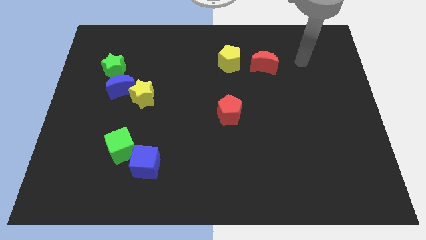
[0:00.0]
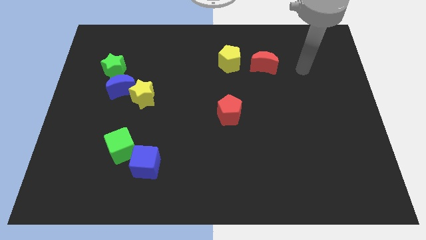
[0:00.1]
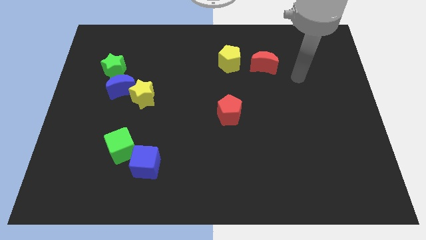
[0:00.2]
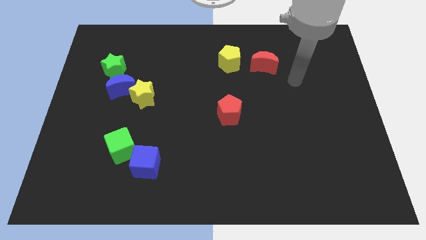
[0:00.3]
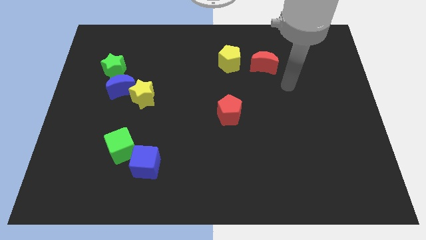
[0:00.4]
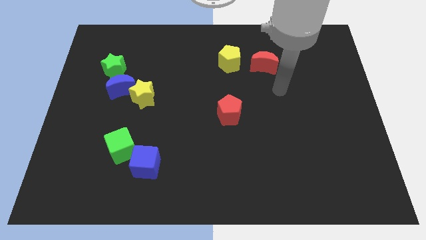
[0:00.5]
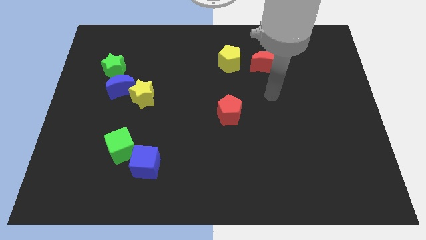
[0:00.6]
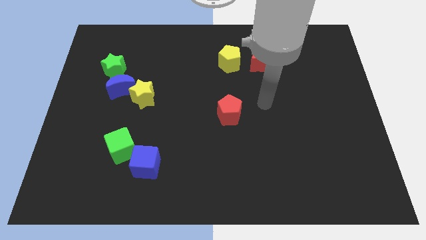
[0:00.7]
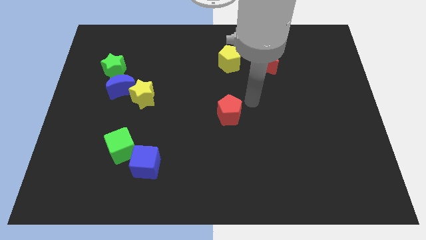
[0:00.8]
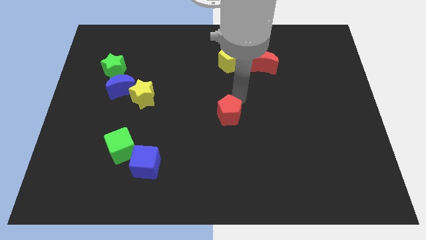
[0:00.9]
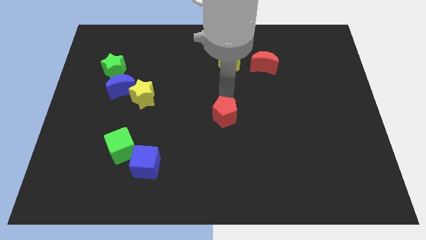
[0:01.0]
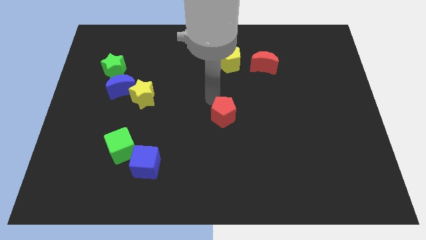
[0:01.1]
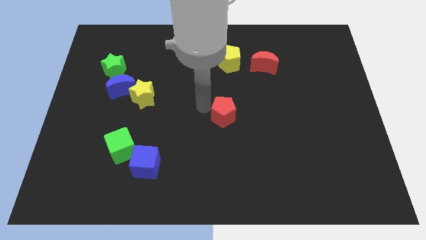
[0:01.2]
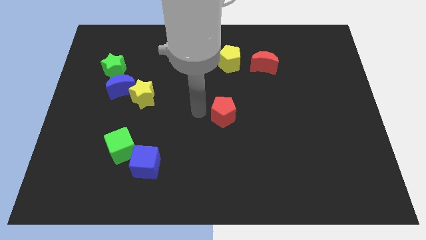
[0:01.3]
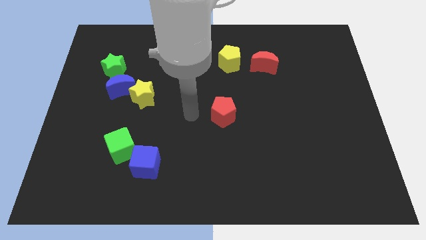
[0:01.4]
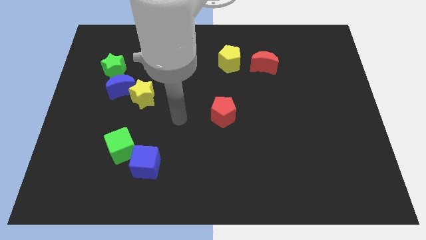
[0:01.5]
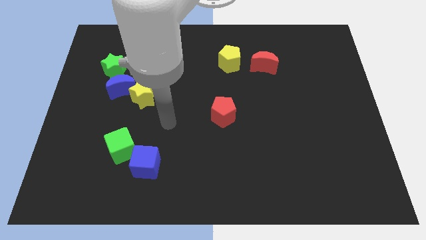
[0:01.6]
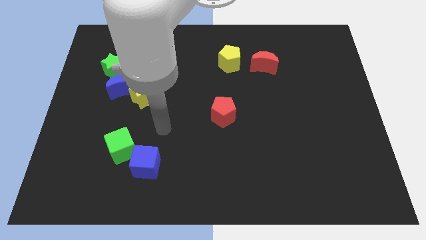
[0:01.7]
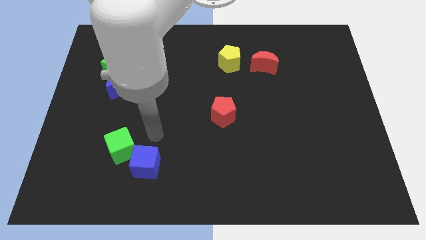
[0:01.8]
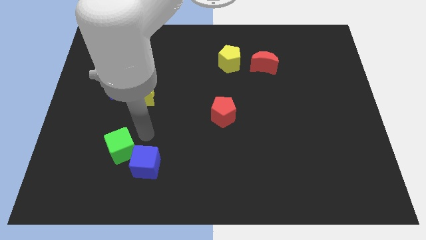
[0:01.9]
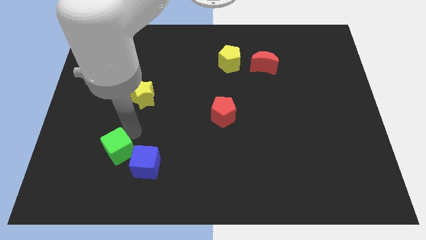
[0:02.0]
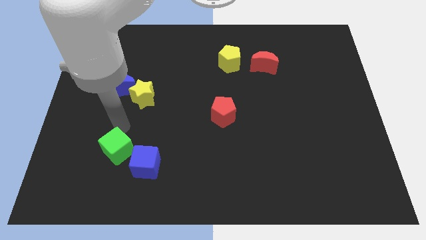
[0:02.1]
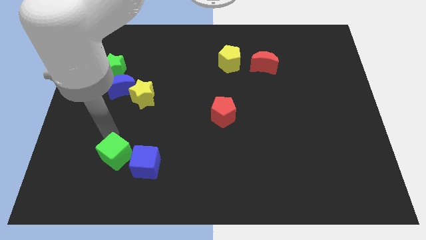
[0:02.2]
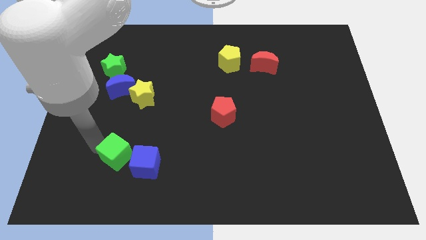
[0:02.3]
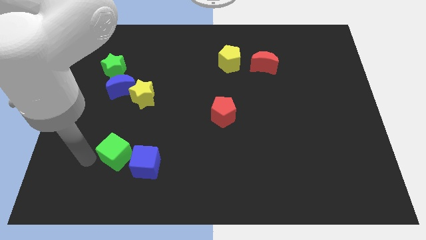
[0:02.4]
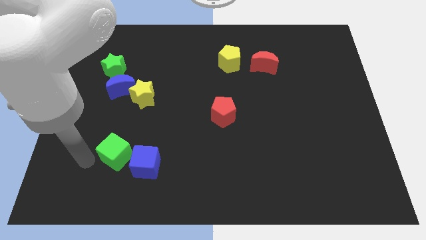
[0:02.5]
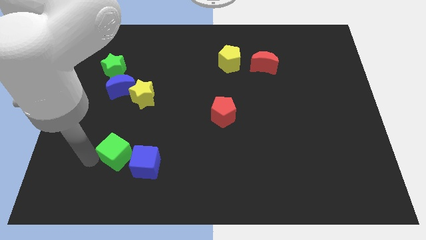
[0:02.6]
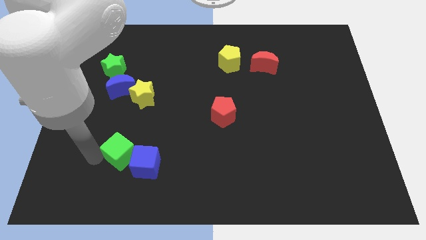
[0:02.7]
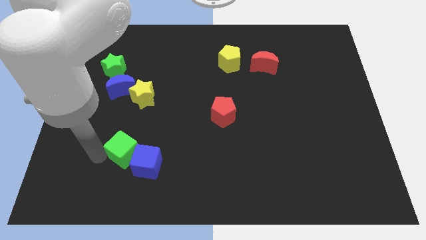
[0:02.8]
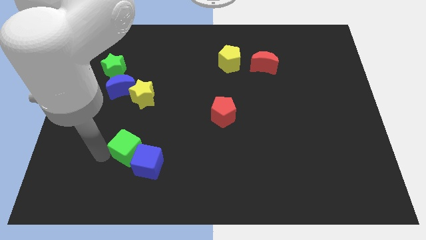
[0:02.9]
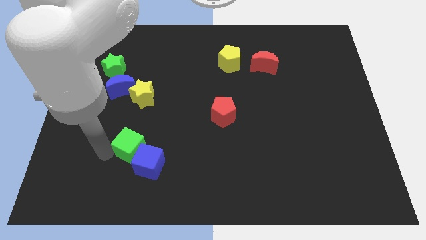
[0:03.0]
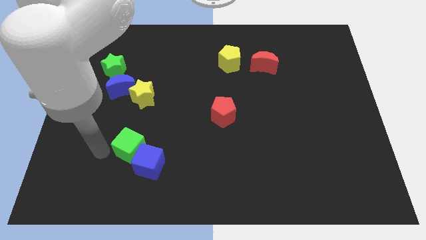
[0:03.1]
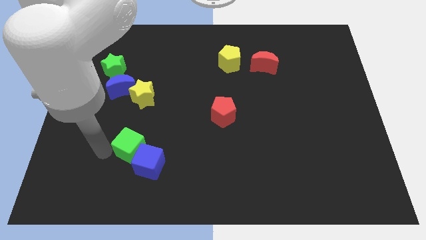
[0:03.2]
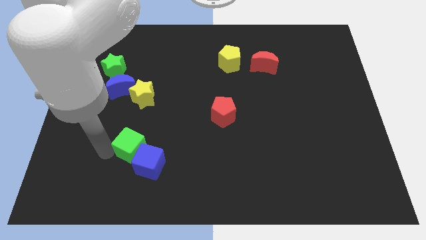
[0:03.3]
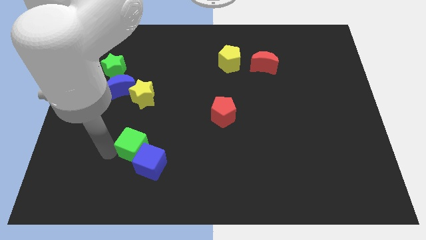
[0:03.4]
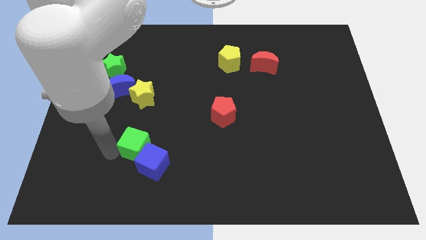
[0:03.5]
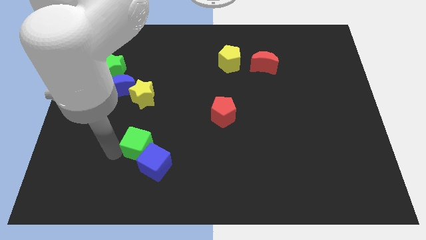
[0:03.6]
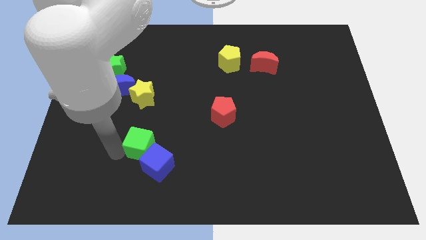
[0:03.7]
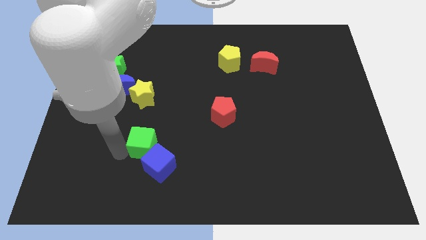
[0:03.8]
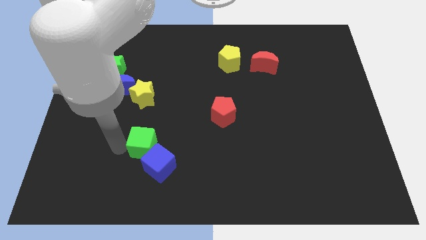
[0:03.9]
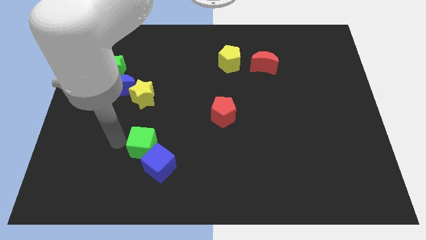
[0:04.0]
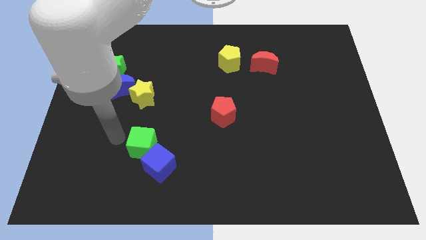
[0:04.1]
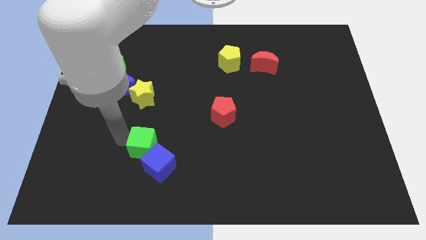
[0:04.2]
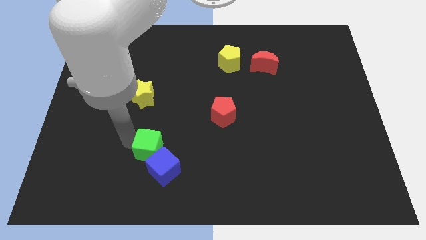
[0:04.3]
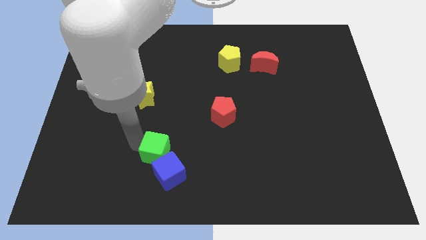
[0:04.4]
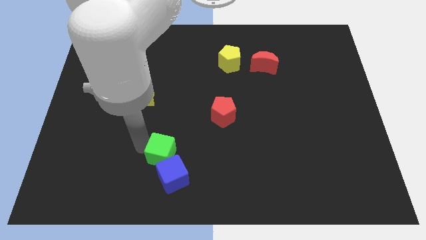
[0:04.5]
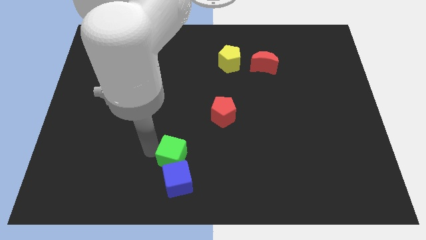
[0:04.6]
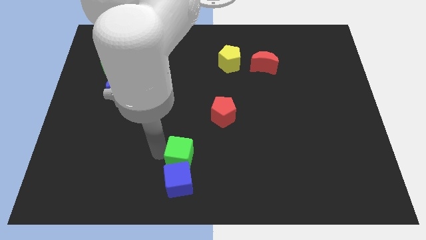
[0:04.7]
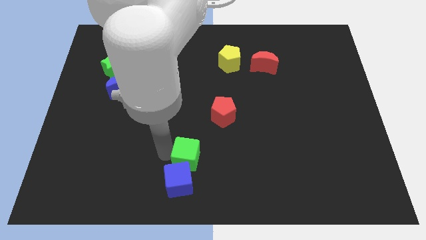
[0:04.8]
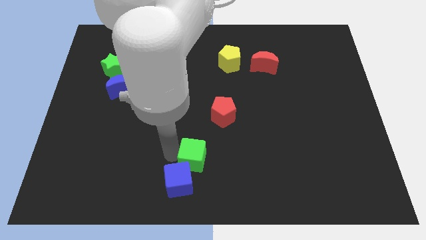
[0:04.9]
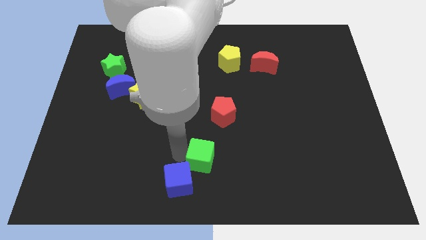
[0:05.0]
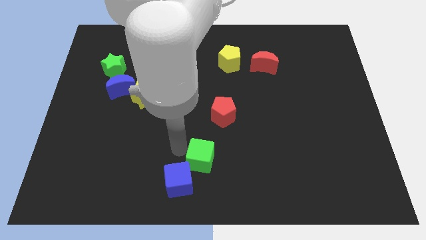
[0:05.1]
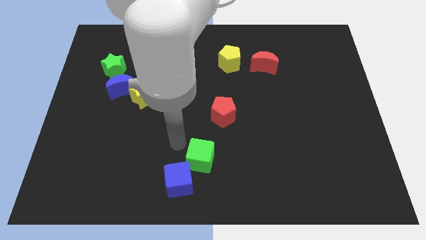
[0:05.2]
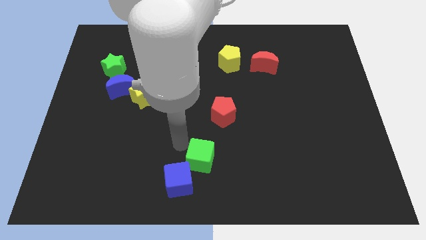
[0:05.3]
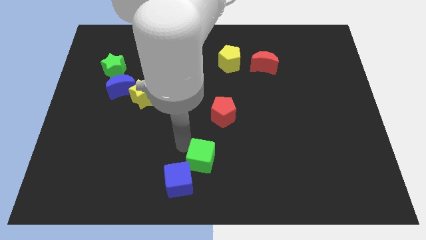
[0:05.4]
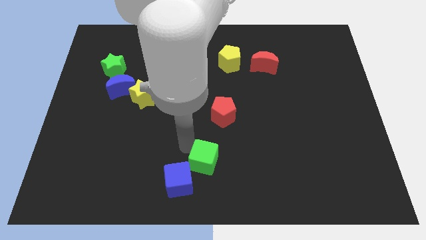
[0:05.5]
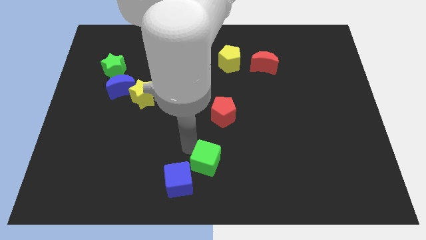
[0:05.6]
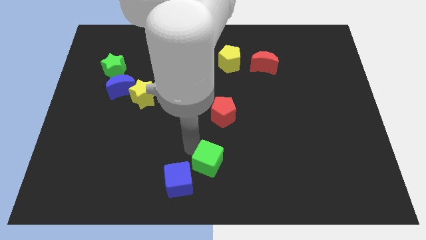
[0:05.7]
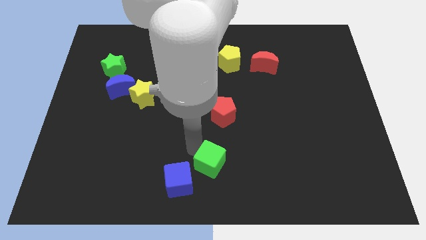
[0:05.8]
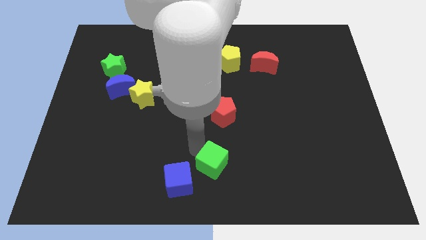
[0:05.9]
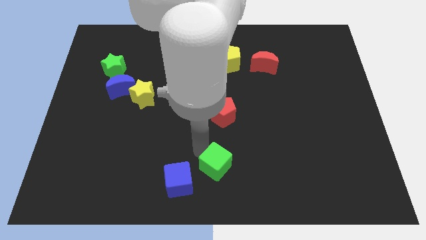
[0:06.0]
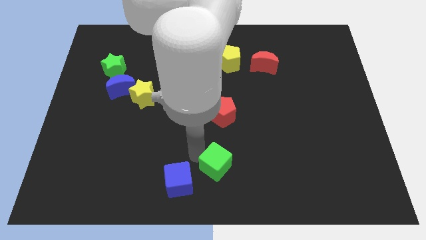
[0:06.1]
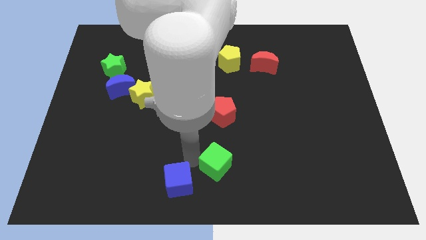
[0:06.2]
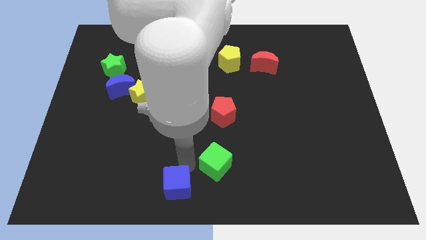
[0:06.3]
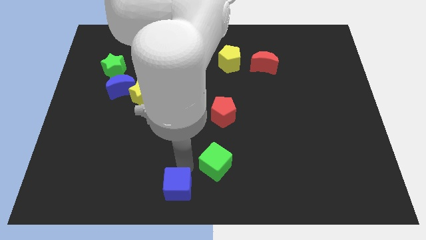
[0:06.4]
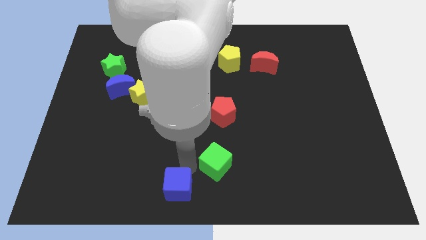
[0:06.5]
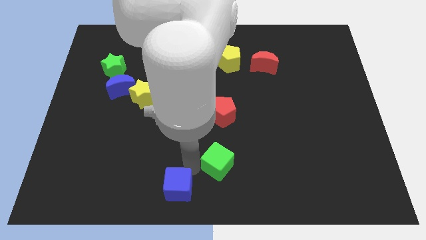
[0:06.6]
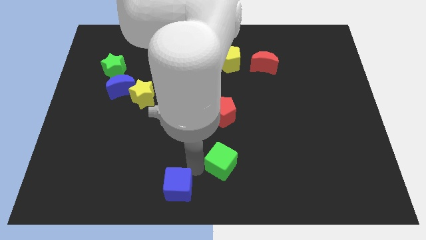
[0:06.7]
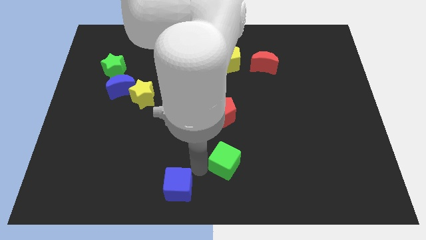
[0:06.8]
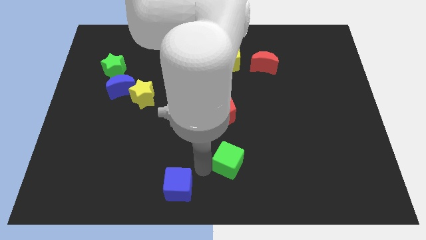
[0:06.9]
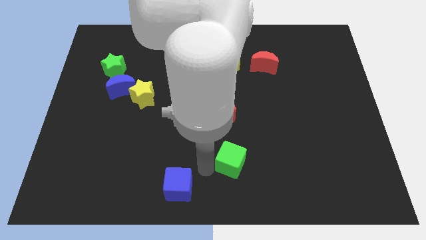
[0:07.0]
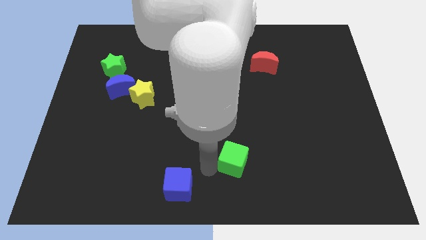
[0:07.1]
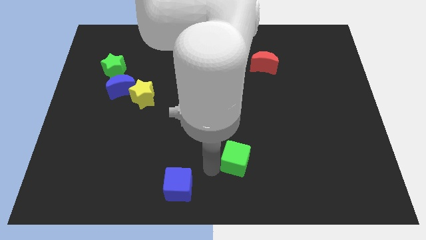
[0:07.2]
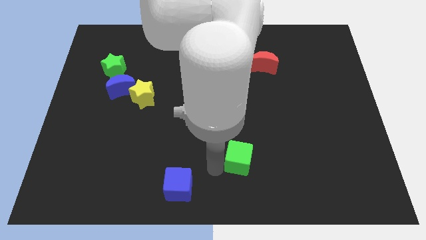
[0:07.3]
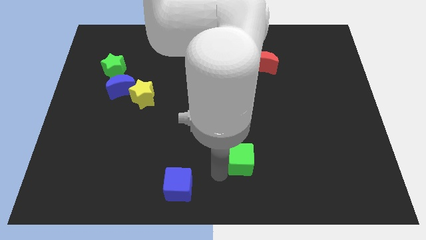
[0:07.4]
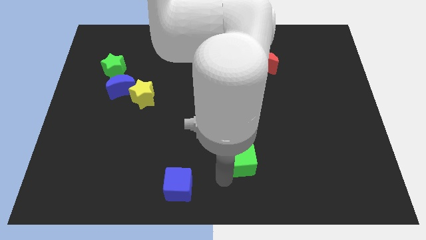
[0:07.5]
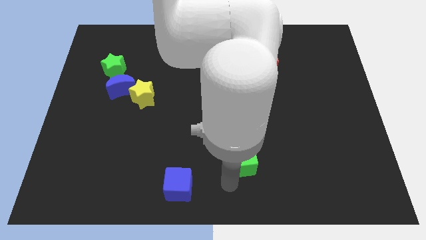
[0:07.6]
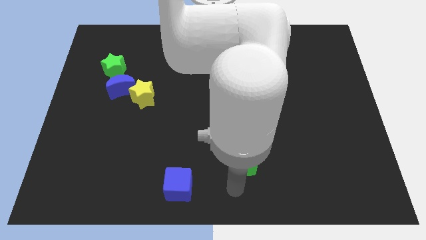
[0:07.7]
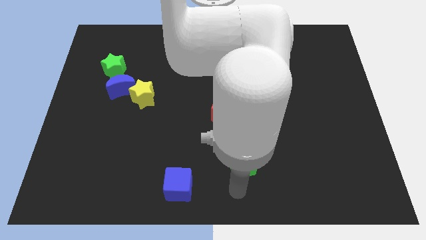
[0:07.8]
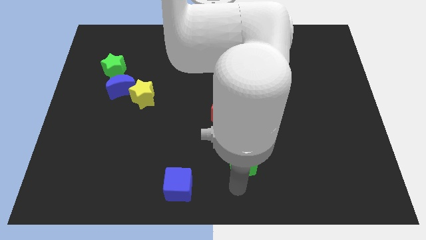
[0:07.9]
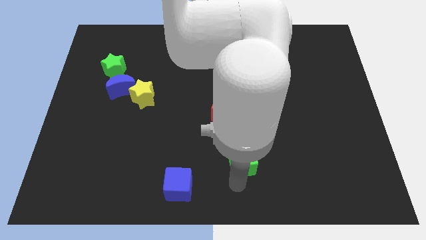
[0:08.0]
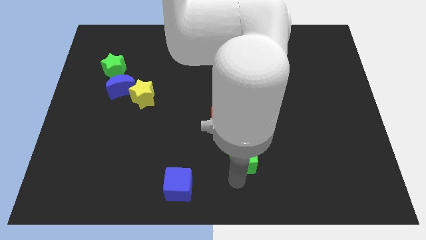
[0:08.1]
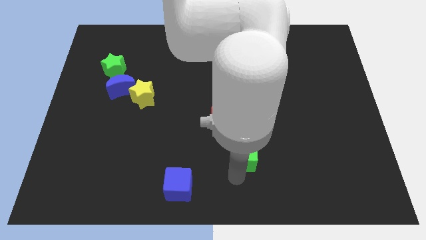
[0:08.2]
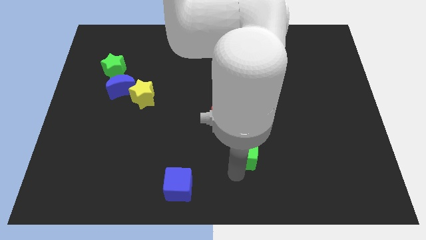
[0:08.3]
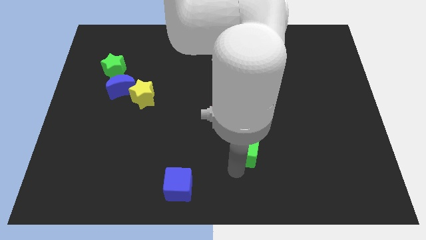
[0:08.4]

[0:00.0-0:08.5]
push the green cube to the bottom right side of the red pentagon
